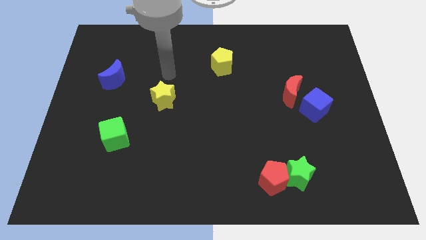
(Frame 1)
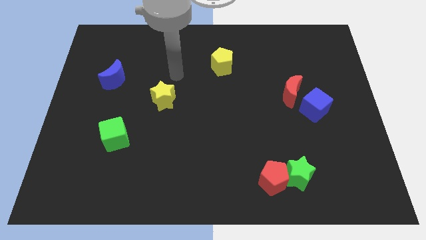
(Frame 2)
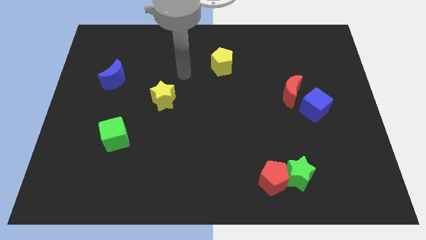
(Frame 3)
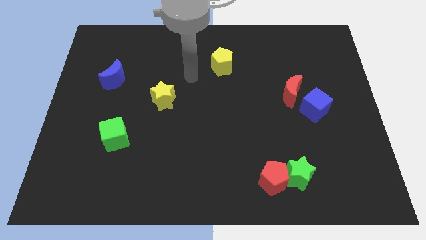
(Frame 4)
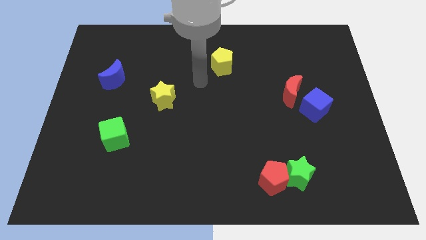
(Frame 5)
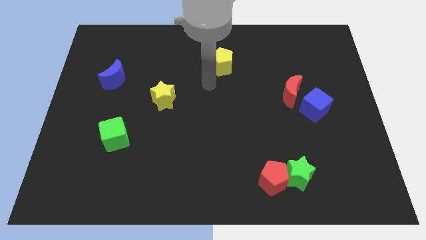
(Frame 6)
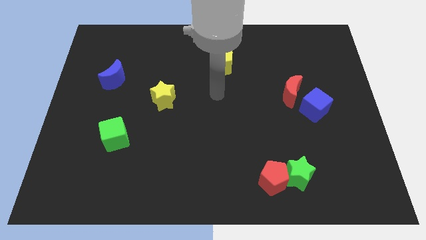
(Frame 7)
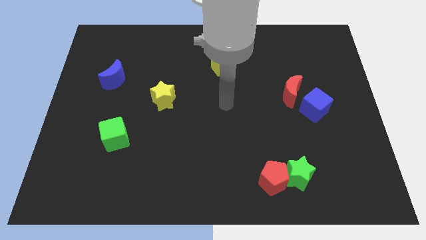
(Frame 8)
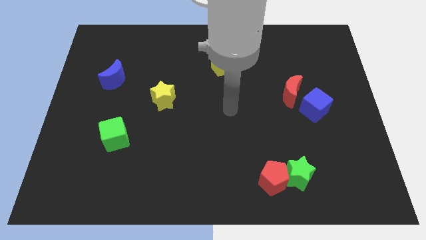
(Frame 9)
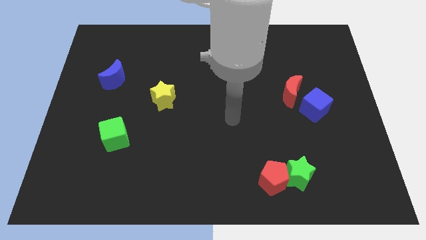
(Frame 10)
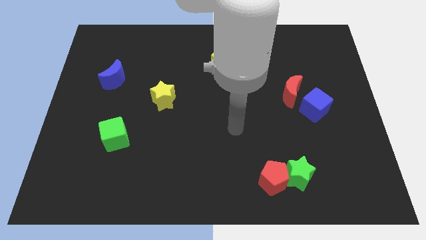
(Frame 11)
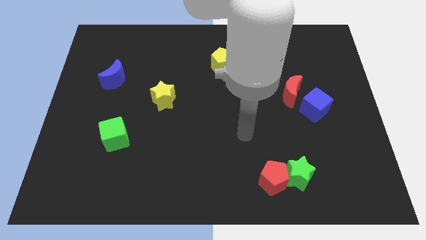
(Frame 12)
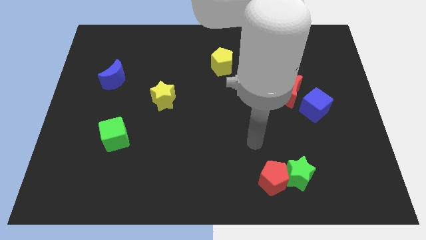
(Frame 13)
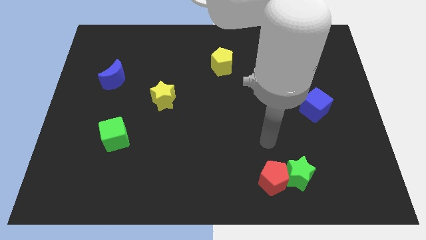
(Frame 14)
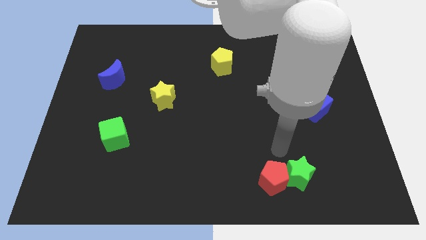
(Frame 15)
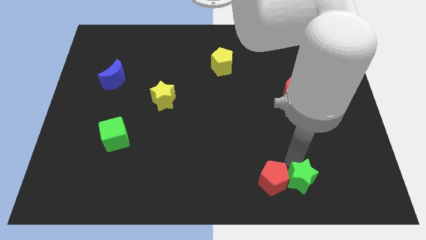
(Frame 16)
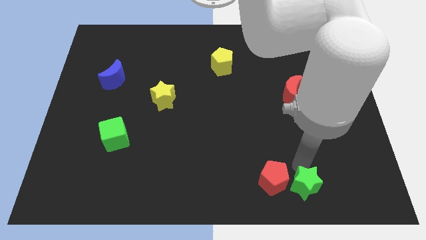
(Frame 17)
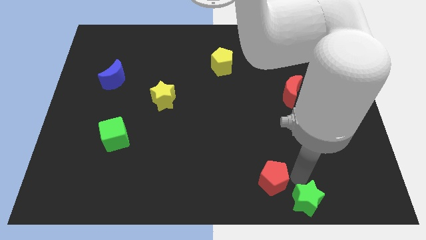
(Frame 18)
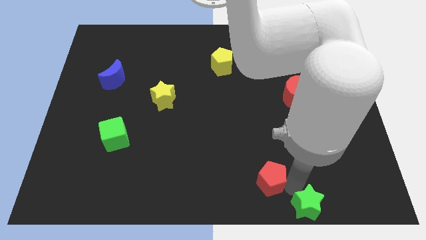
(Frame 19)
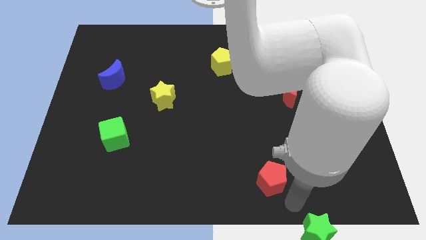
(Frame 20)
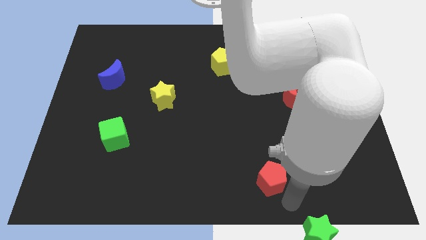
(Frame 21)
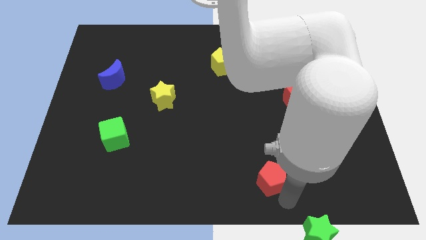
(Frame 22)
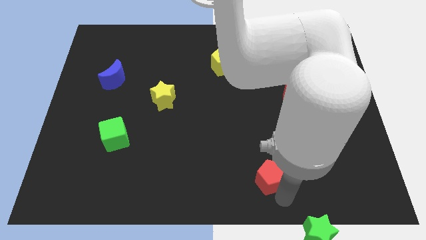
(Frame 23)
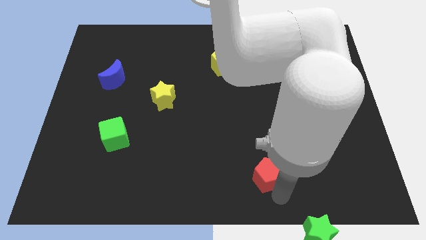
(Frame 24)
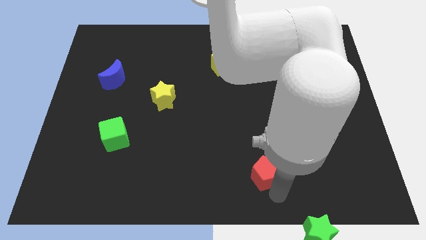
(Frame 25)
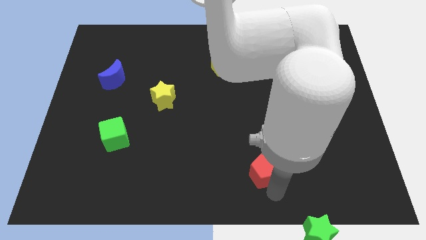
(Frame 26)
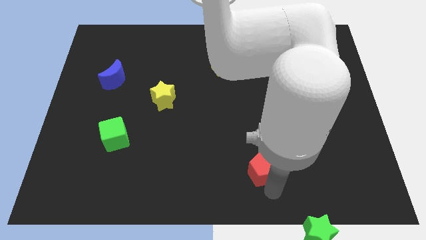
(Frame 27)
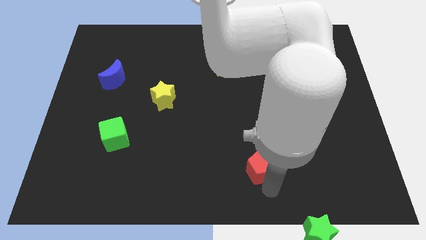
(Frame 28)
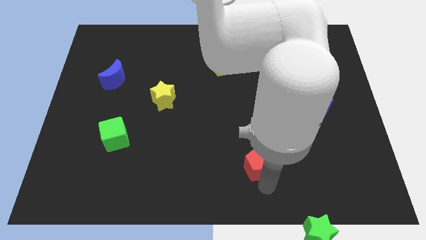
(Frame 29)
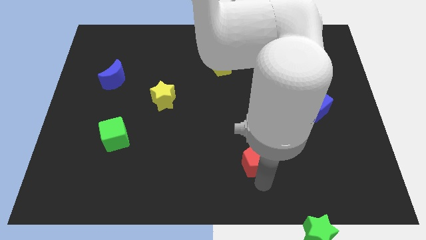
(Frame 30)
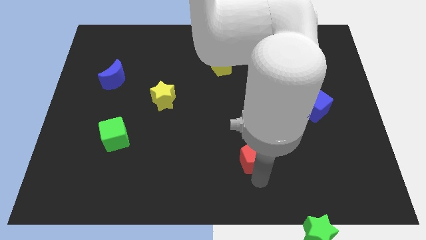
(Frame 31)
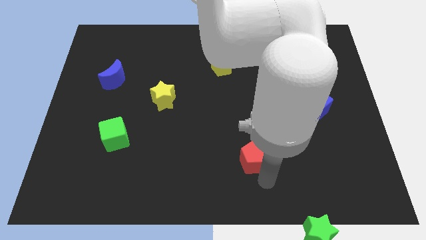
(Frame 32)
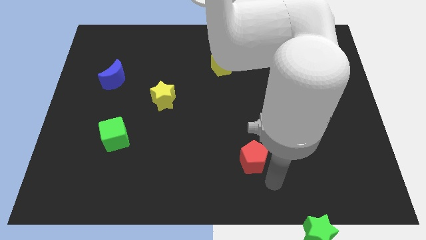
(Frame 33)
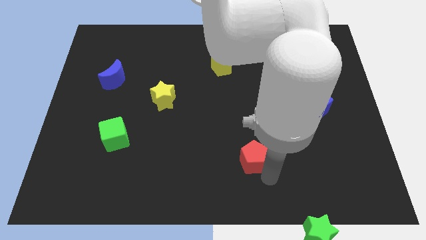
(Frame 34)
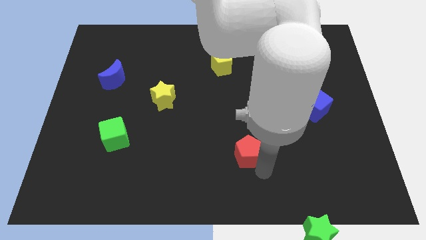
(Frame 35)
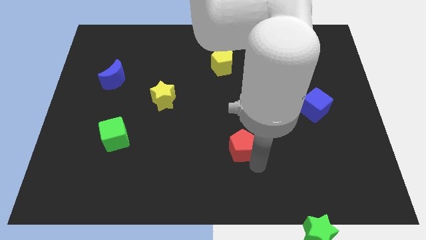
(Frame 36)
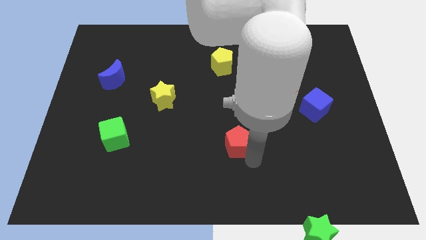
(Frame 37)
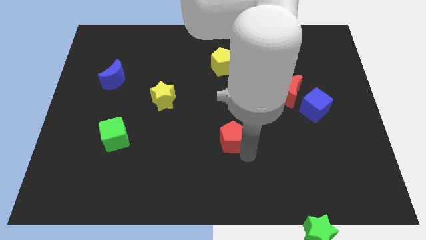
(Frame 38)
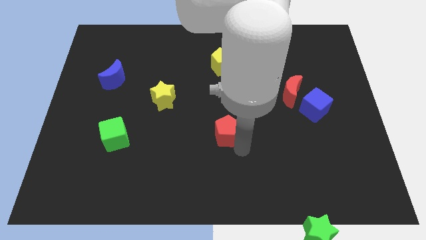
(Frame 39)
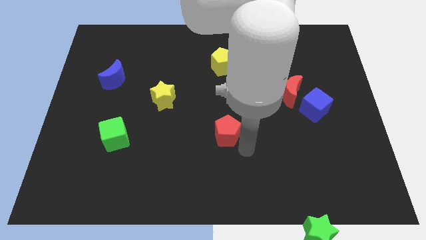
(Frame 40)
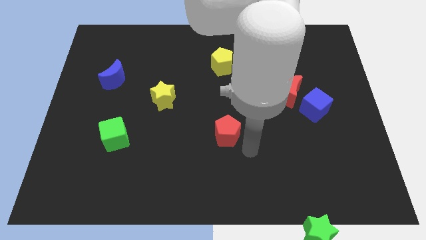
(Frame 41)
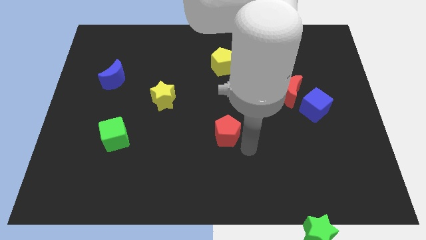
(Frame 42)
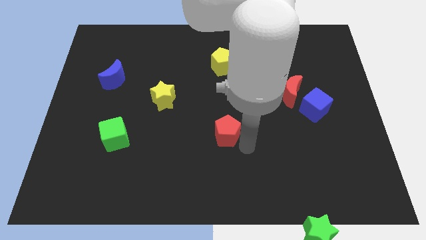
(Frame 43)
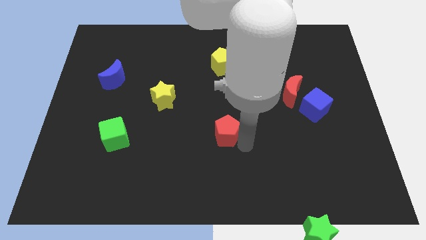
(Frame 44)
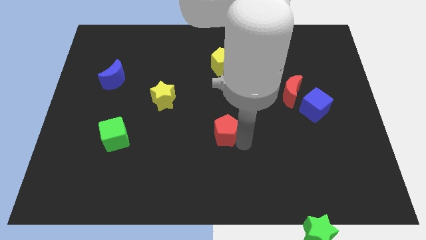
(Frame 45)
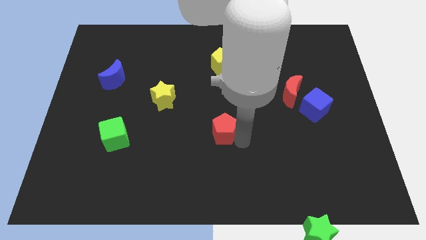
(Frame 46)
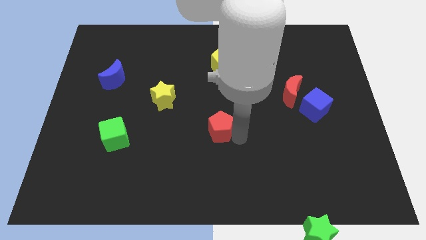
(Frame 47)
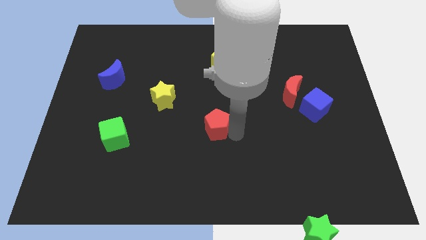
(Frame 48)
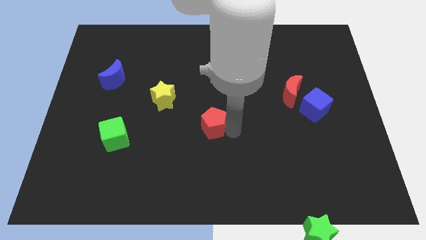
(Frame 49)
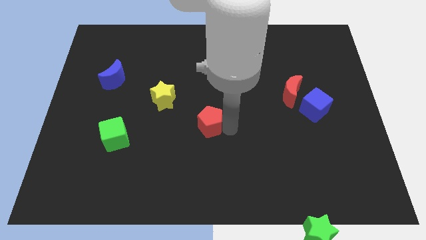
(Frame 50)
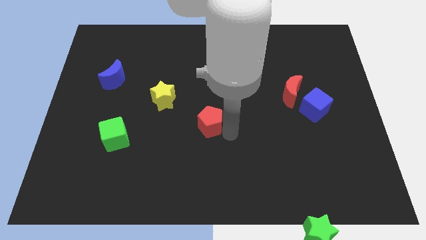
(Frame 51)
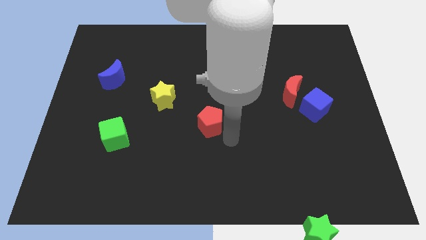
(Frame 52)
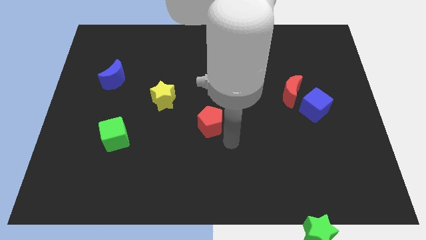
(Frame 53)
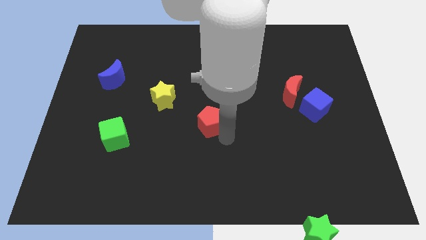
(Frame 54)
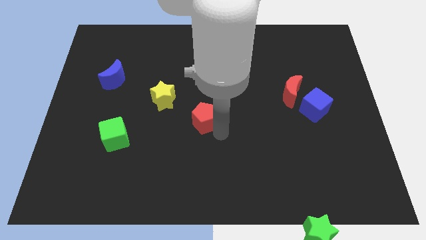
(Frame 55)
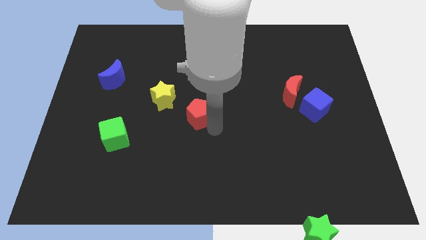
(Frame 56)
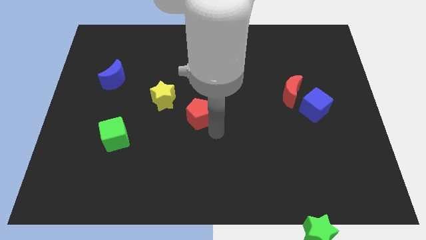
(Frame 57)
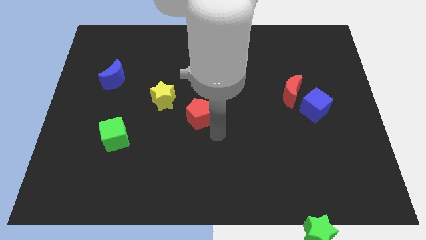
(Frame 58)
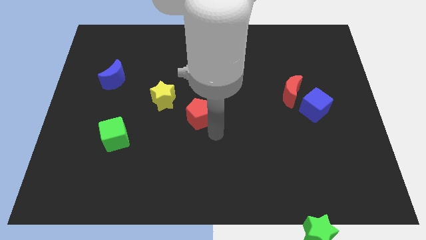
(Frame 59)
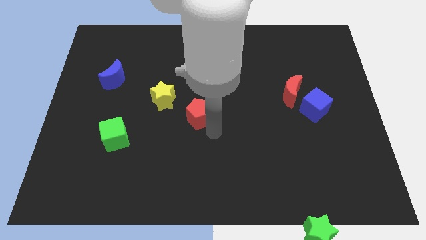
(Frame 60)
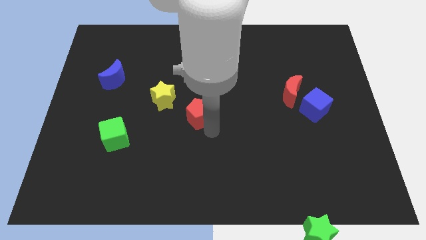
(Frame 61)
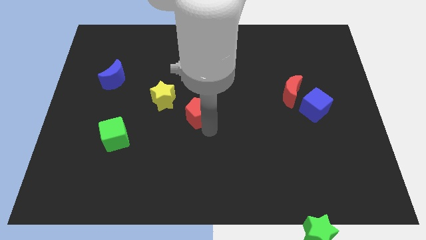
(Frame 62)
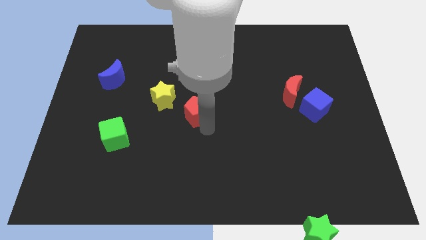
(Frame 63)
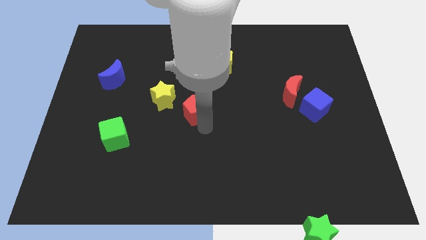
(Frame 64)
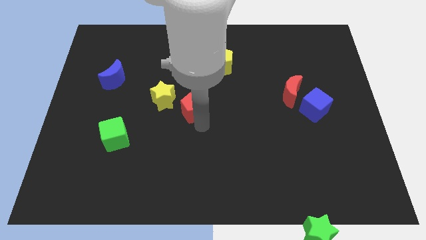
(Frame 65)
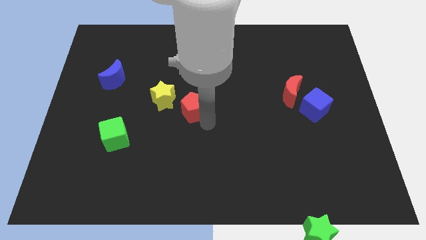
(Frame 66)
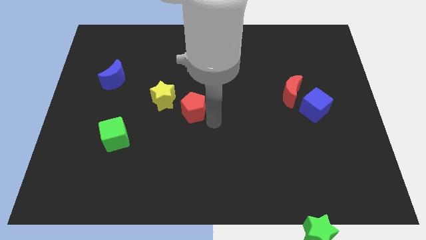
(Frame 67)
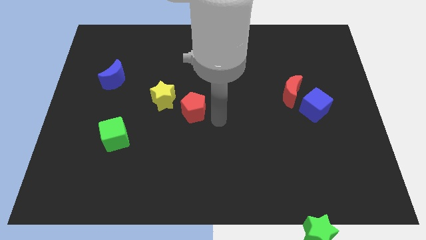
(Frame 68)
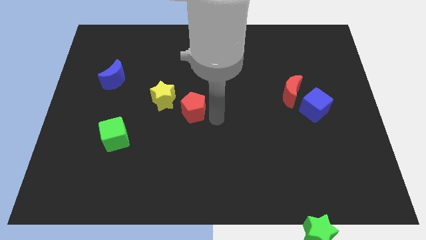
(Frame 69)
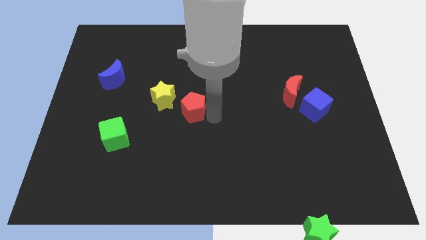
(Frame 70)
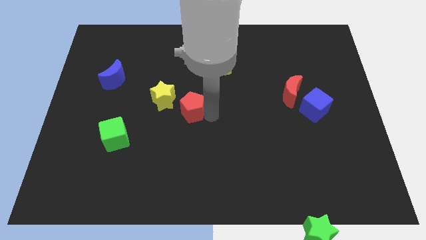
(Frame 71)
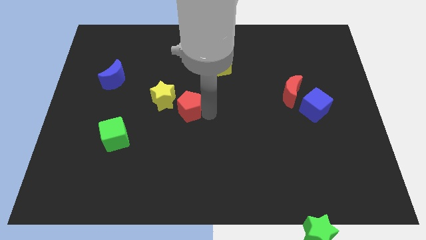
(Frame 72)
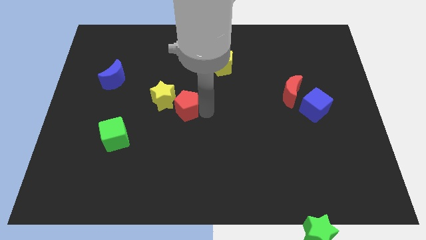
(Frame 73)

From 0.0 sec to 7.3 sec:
move the red pentagon towards the yellow star
